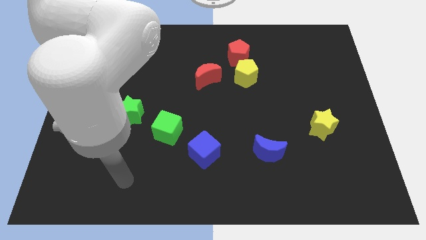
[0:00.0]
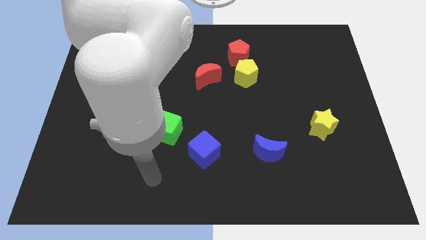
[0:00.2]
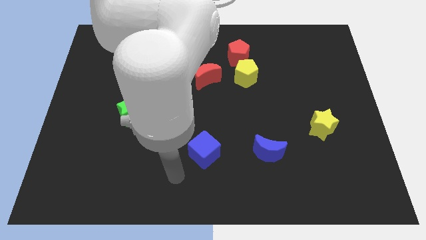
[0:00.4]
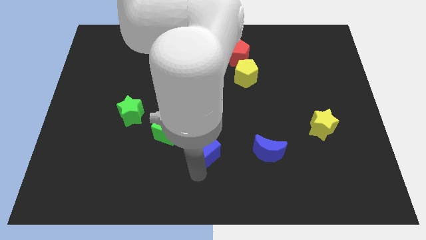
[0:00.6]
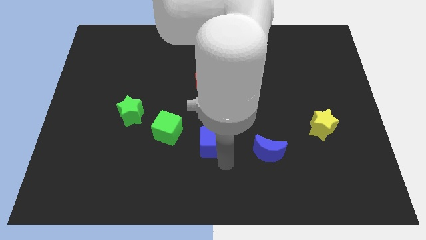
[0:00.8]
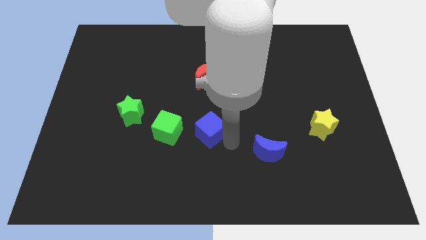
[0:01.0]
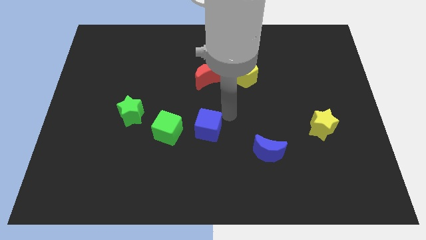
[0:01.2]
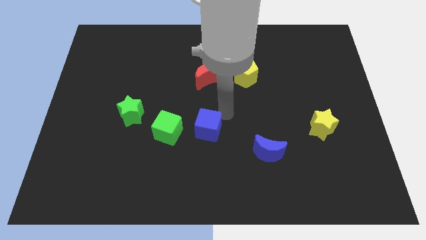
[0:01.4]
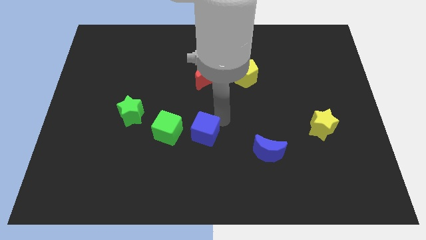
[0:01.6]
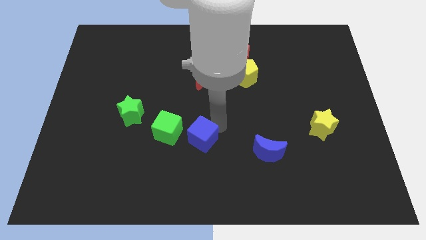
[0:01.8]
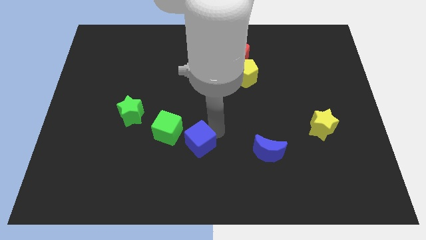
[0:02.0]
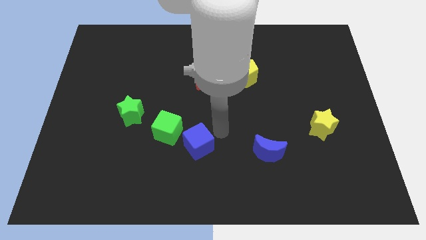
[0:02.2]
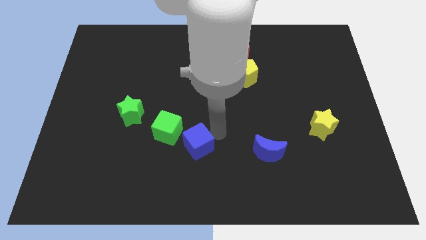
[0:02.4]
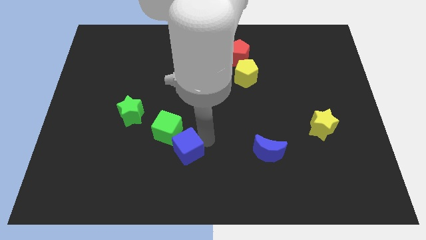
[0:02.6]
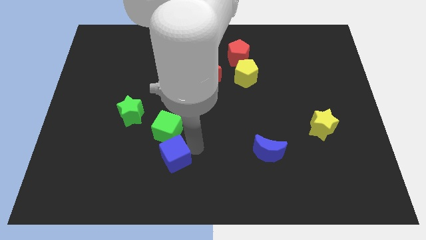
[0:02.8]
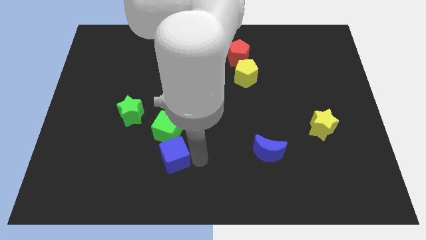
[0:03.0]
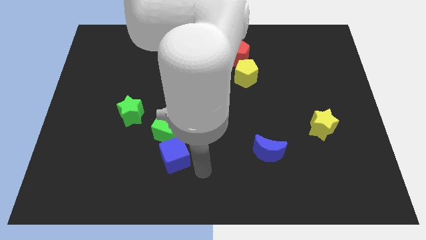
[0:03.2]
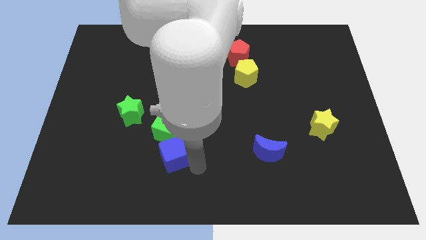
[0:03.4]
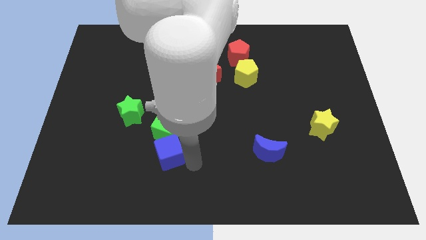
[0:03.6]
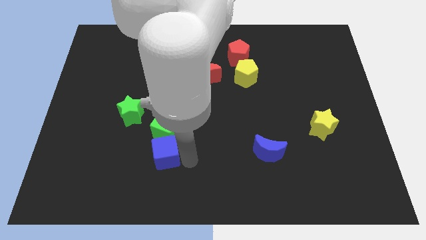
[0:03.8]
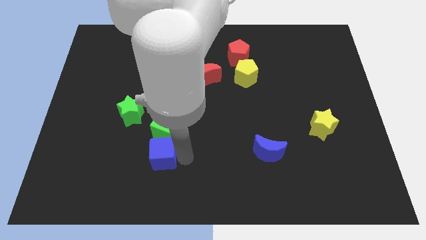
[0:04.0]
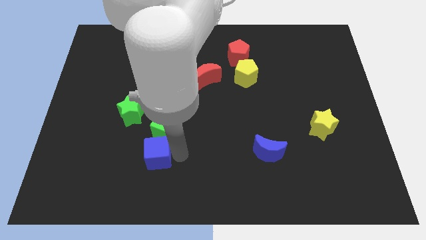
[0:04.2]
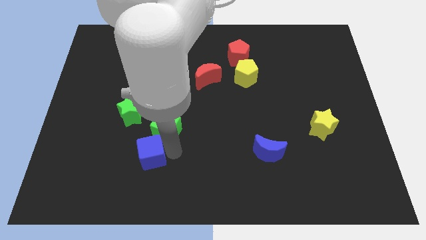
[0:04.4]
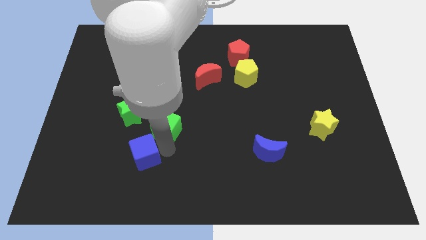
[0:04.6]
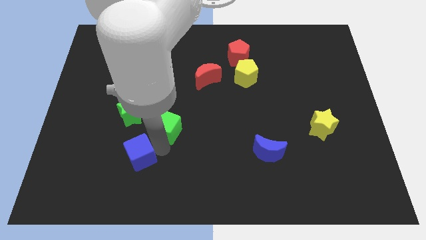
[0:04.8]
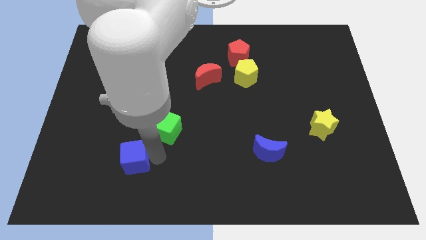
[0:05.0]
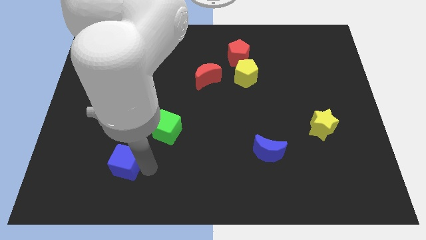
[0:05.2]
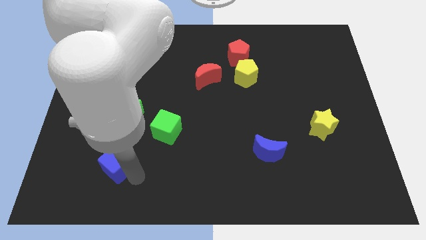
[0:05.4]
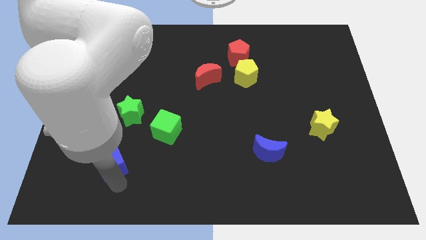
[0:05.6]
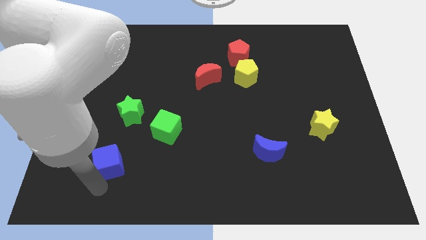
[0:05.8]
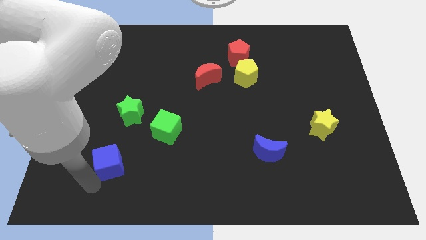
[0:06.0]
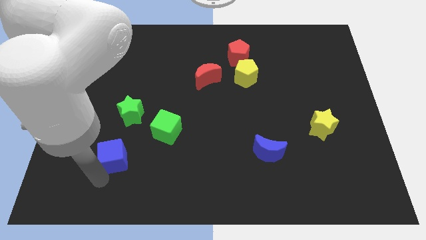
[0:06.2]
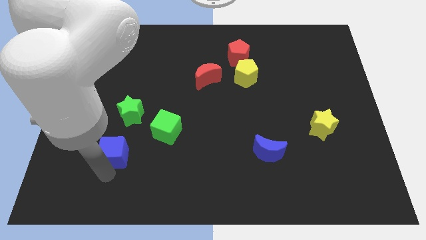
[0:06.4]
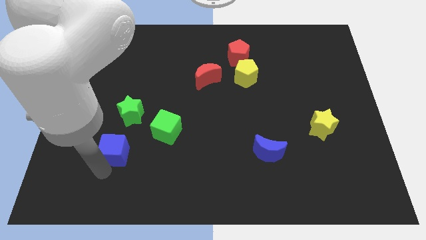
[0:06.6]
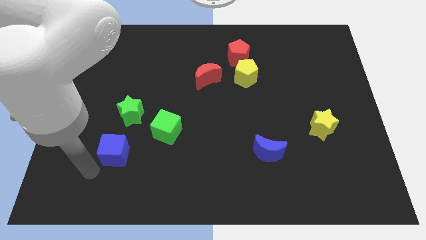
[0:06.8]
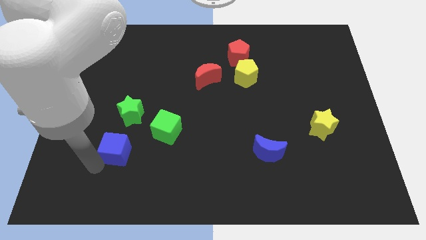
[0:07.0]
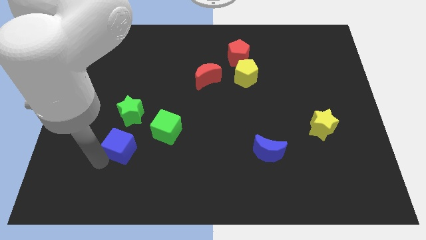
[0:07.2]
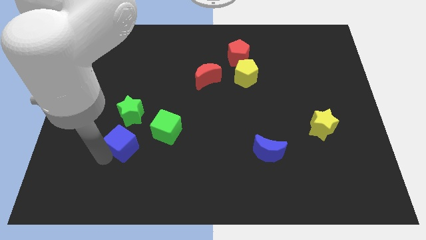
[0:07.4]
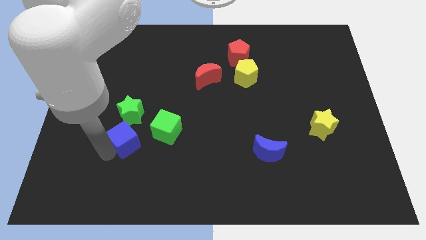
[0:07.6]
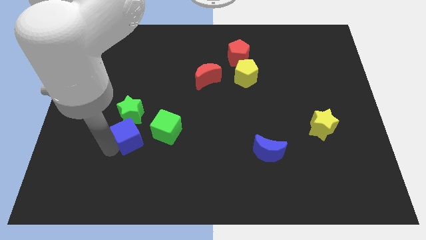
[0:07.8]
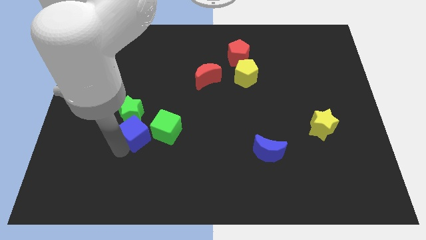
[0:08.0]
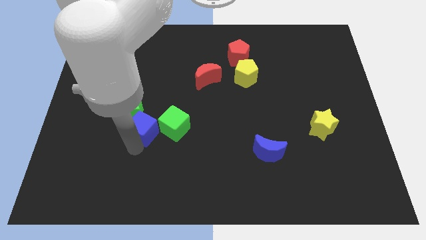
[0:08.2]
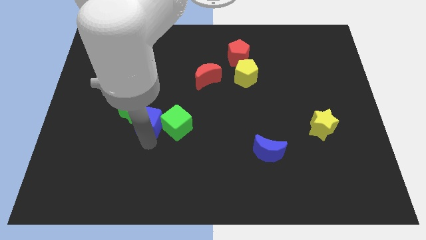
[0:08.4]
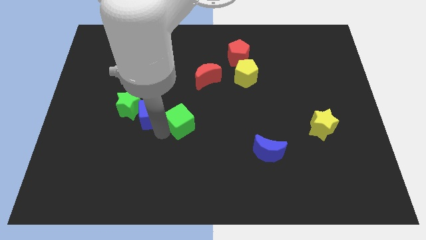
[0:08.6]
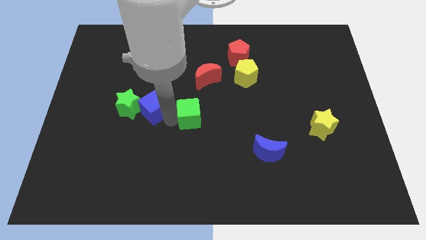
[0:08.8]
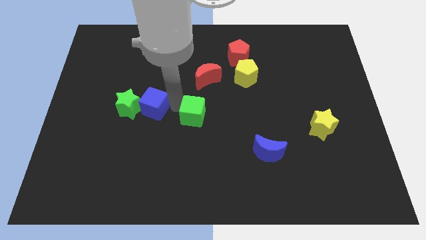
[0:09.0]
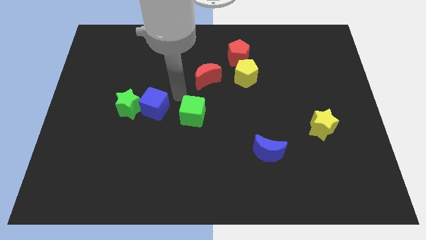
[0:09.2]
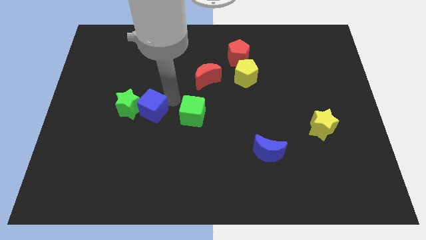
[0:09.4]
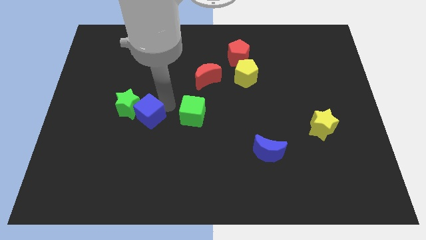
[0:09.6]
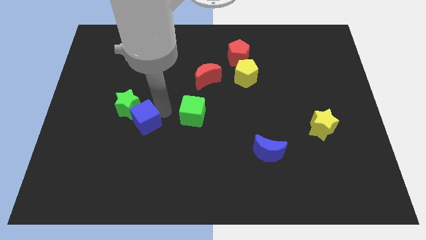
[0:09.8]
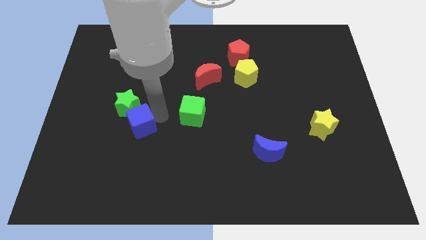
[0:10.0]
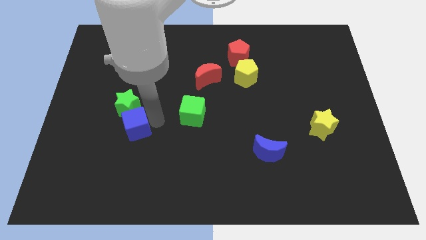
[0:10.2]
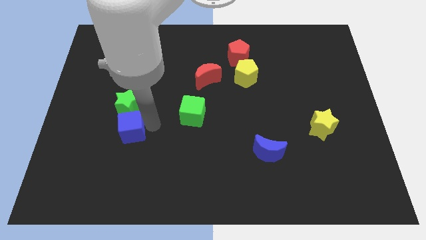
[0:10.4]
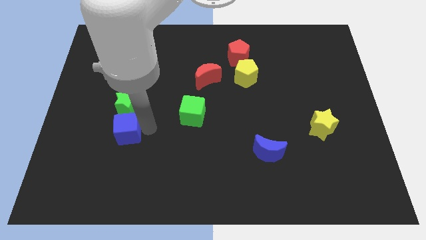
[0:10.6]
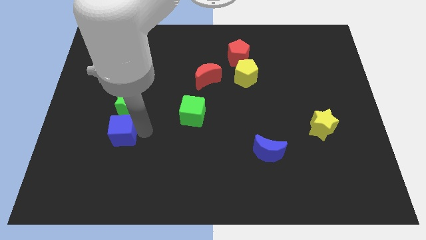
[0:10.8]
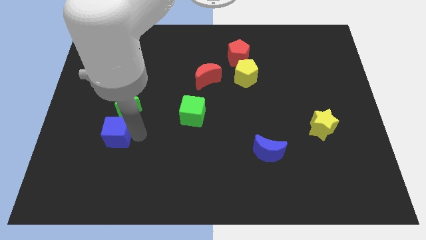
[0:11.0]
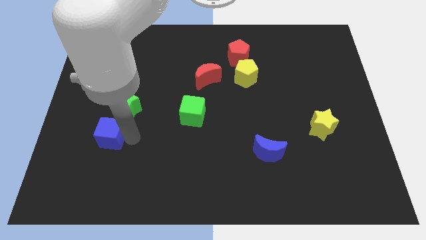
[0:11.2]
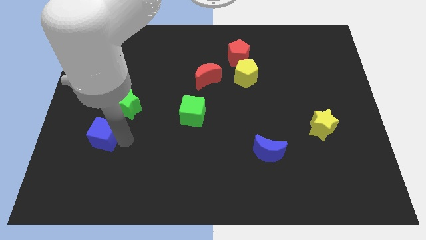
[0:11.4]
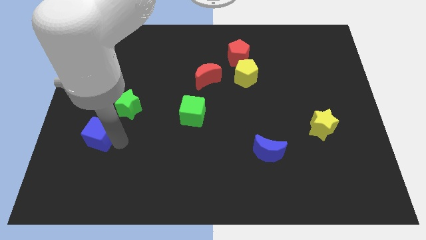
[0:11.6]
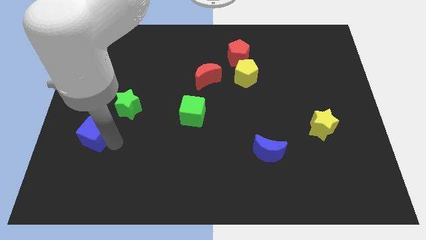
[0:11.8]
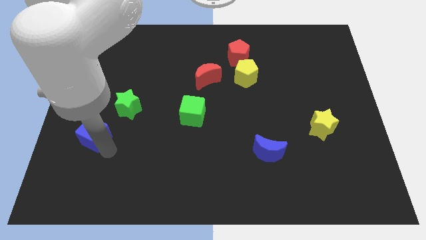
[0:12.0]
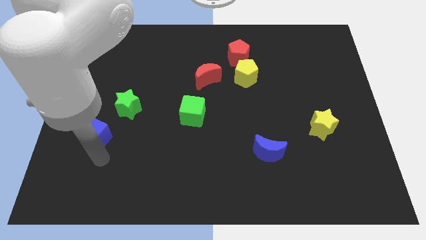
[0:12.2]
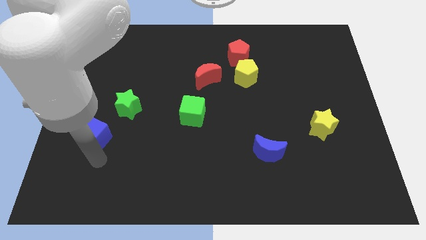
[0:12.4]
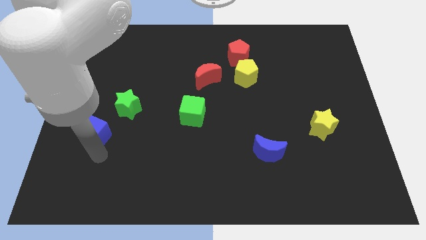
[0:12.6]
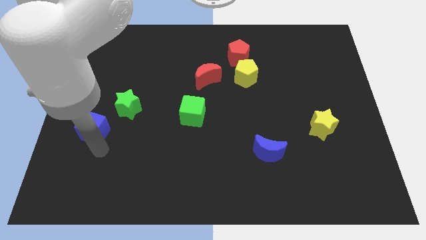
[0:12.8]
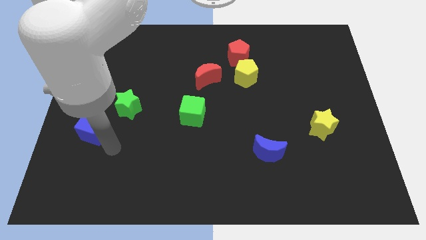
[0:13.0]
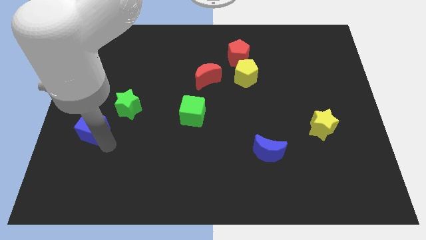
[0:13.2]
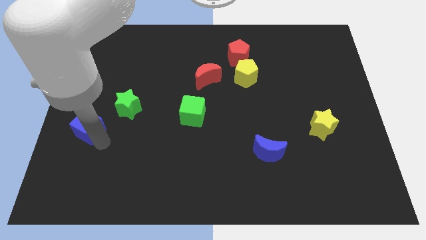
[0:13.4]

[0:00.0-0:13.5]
push the blue cube to the center left
